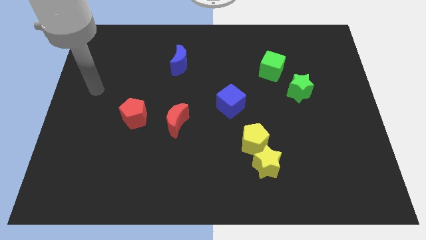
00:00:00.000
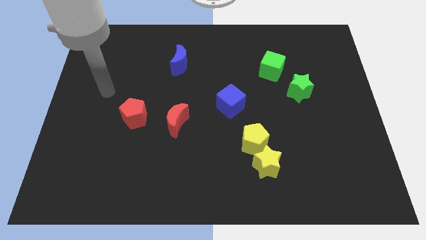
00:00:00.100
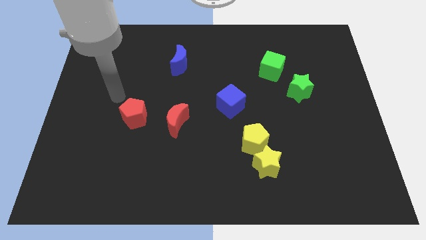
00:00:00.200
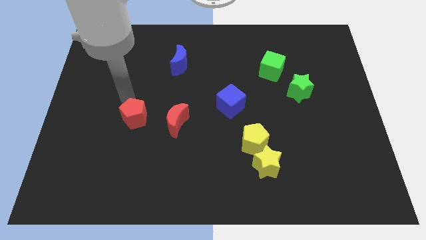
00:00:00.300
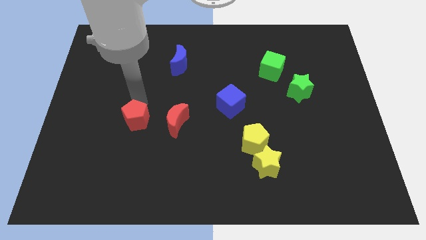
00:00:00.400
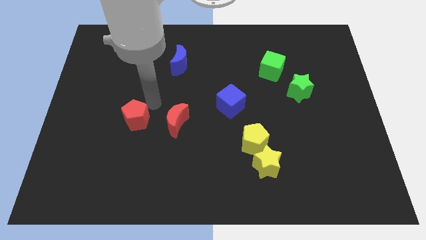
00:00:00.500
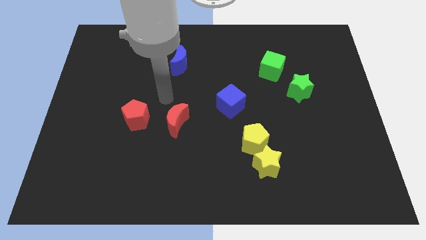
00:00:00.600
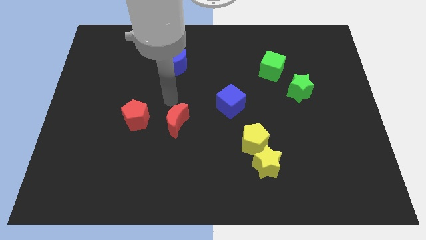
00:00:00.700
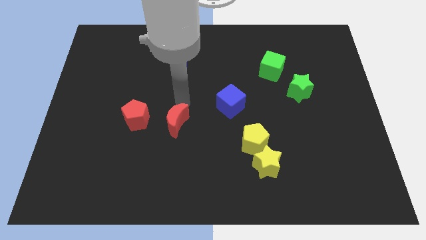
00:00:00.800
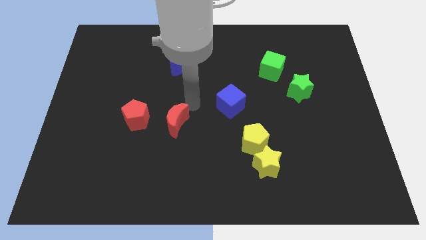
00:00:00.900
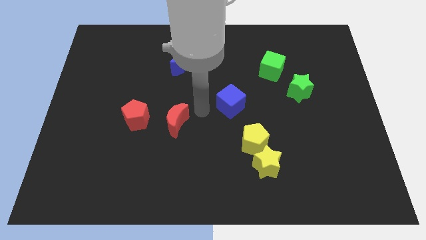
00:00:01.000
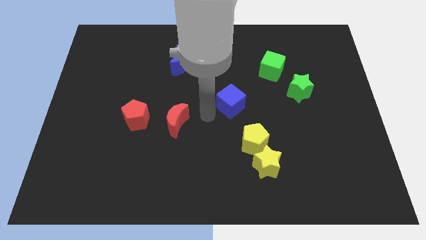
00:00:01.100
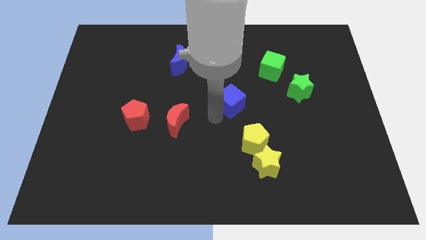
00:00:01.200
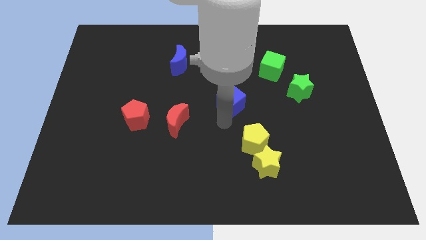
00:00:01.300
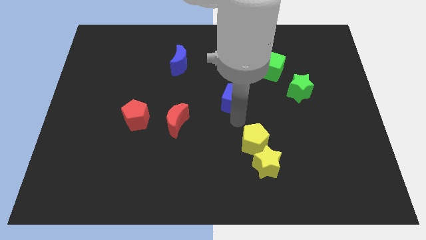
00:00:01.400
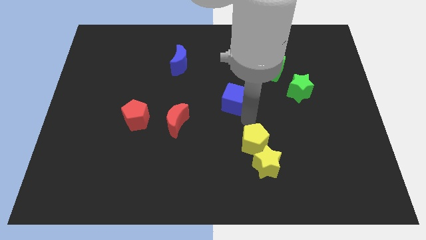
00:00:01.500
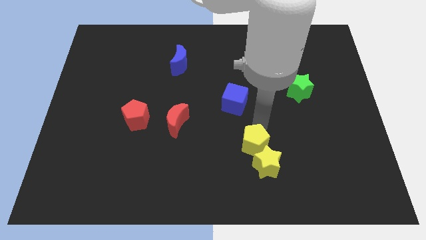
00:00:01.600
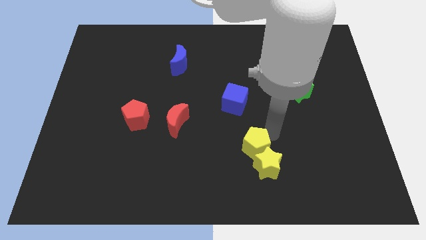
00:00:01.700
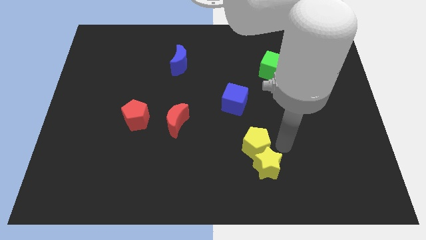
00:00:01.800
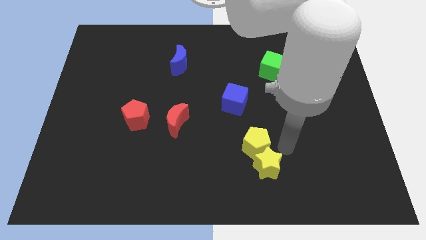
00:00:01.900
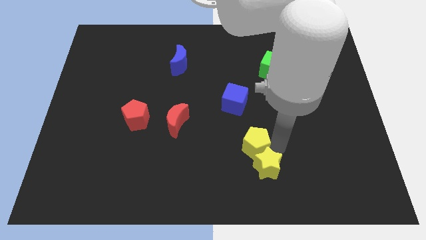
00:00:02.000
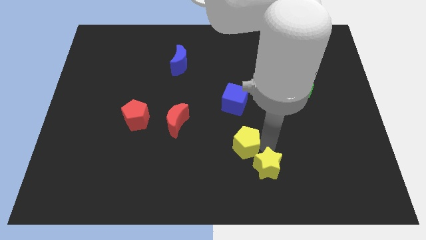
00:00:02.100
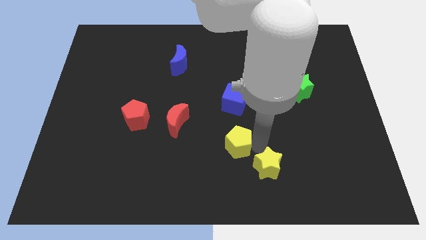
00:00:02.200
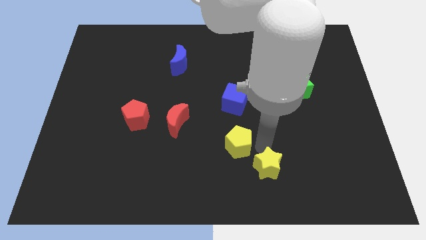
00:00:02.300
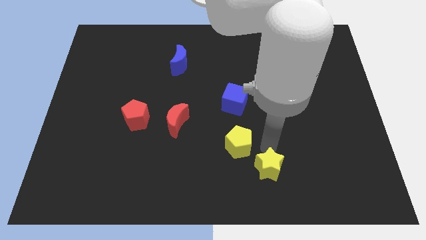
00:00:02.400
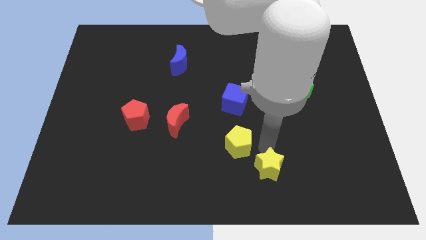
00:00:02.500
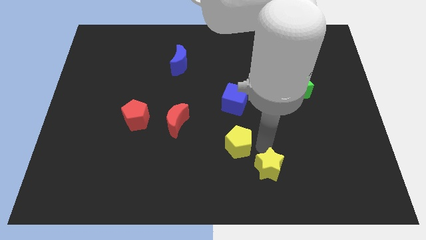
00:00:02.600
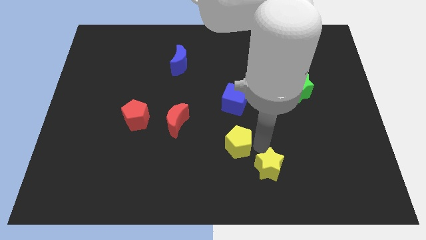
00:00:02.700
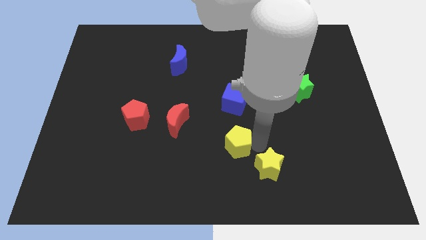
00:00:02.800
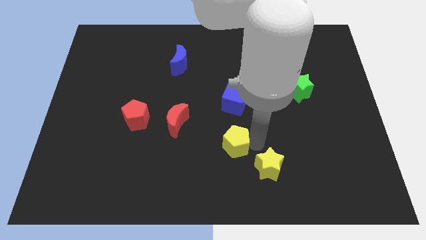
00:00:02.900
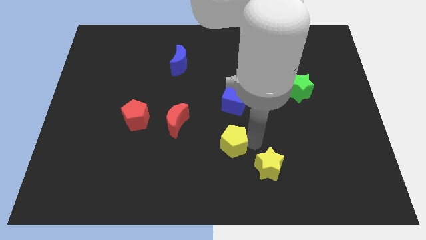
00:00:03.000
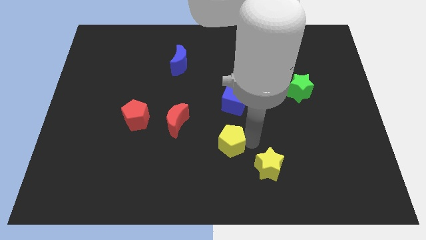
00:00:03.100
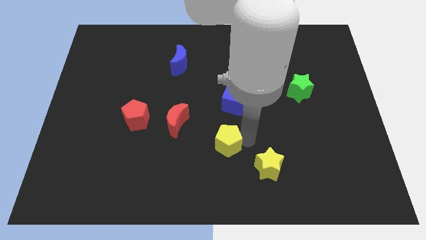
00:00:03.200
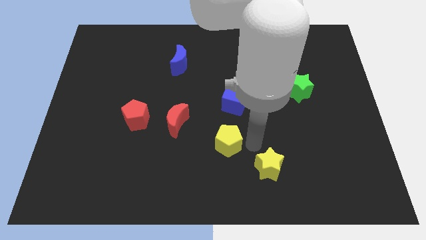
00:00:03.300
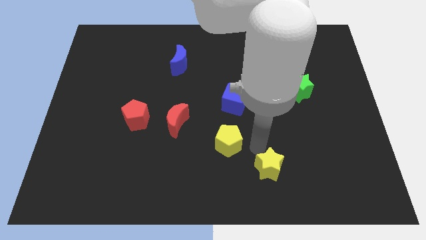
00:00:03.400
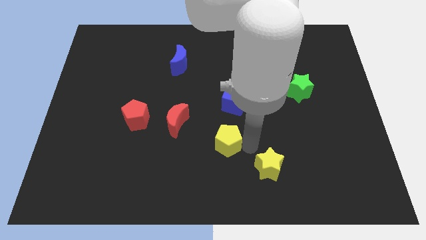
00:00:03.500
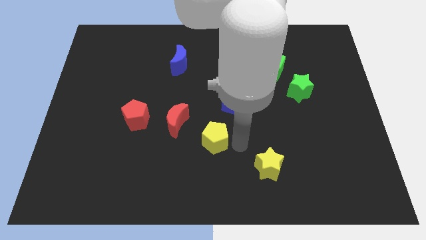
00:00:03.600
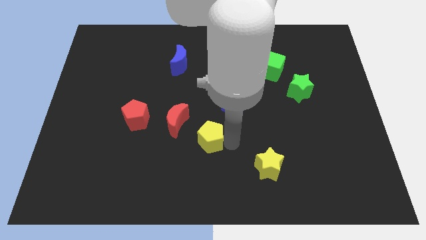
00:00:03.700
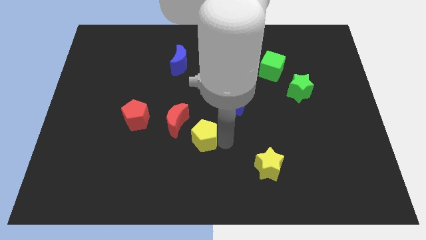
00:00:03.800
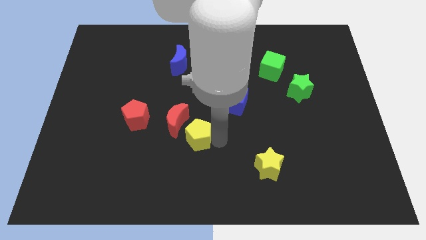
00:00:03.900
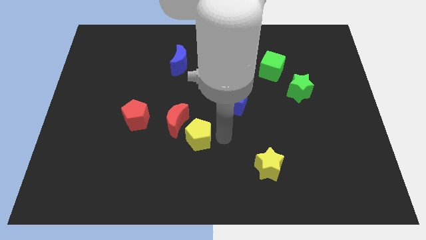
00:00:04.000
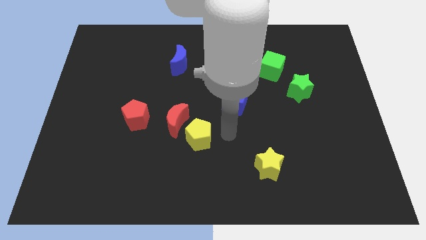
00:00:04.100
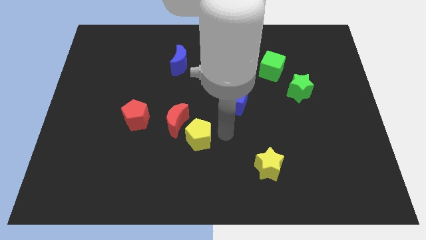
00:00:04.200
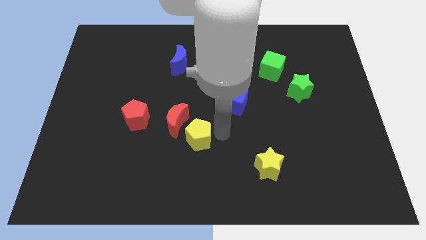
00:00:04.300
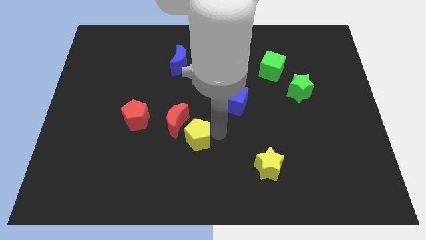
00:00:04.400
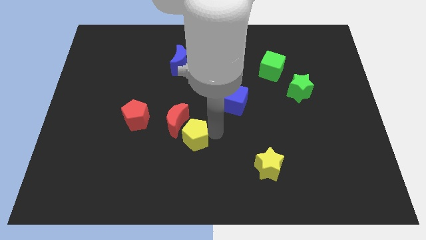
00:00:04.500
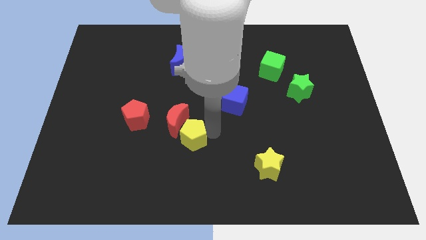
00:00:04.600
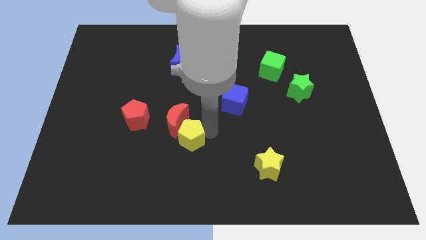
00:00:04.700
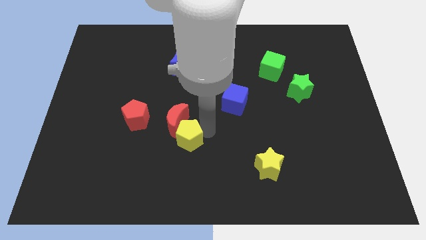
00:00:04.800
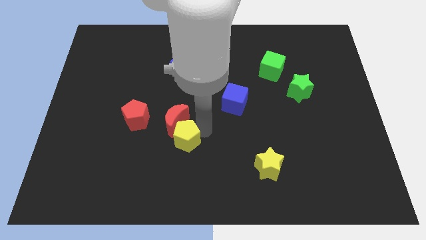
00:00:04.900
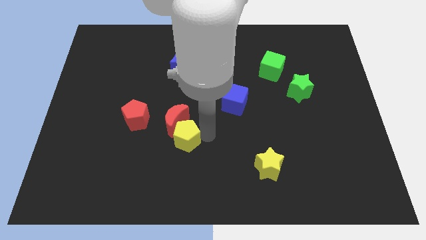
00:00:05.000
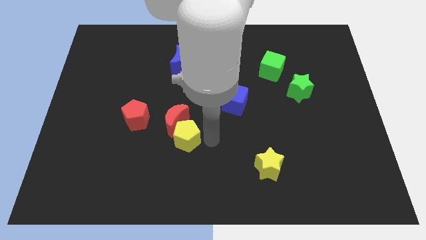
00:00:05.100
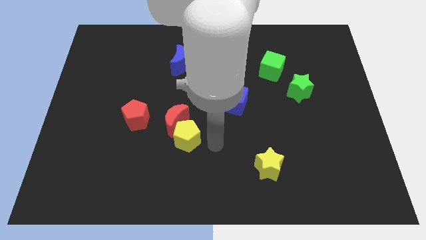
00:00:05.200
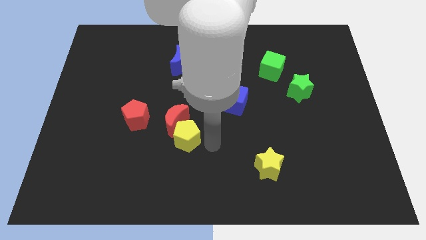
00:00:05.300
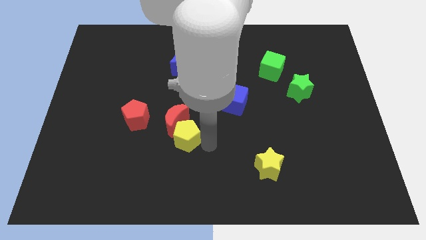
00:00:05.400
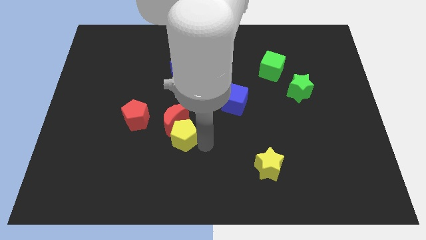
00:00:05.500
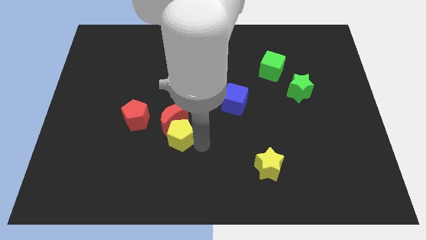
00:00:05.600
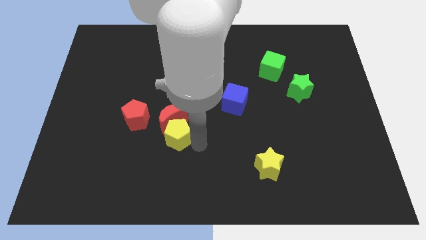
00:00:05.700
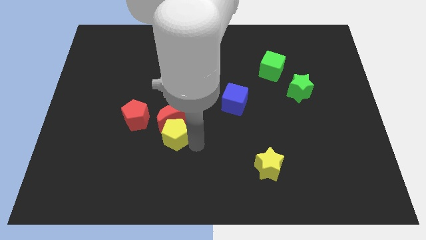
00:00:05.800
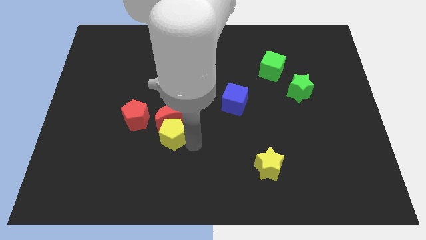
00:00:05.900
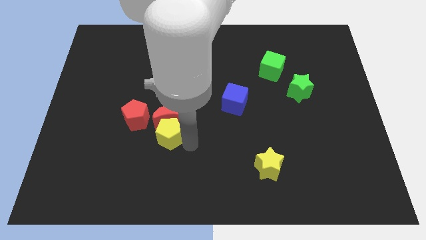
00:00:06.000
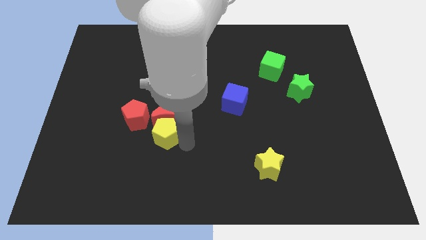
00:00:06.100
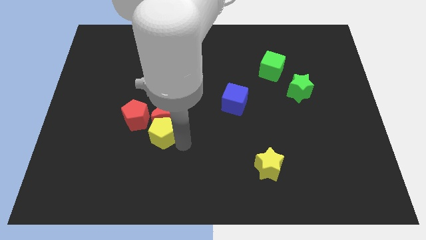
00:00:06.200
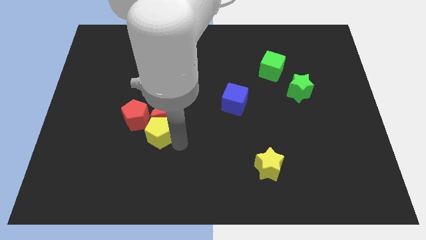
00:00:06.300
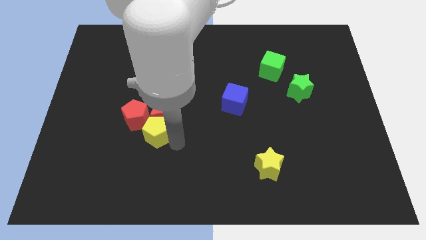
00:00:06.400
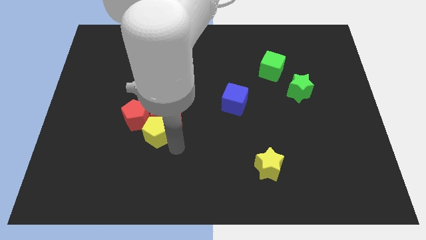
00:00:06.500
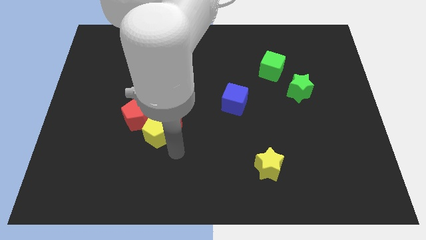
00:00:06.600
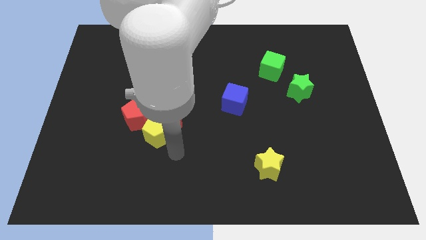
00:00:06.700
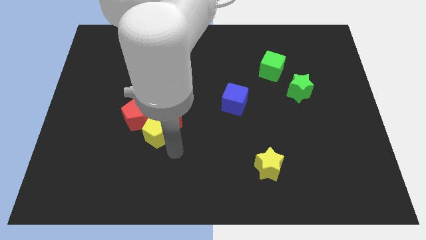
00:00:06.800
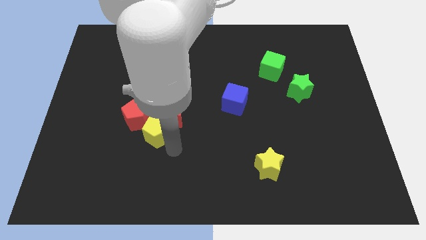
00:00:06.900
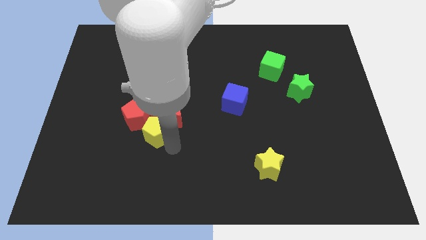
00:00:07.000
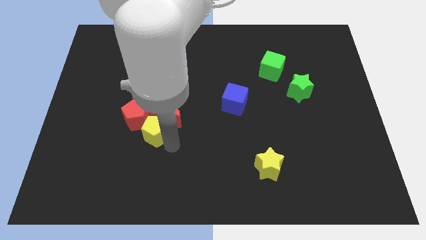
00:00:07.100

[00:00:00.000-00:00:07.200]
put the yellow pentagon to the red pentagon

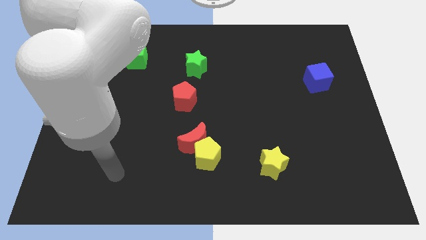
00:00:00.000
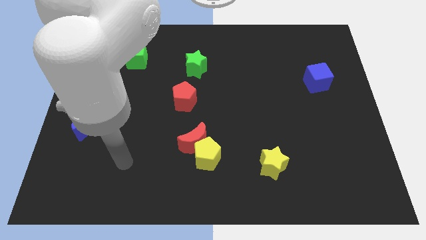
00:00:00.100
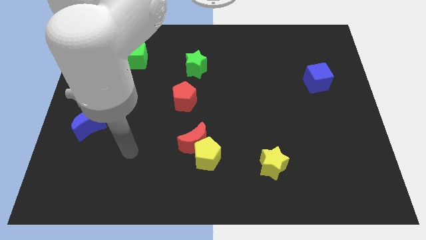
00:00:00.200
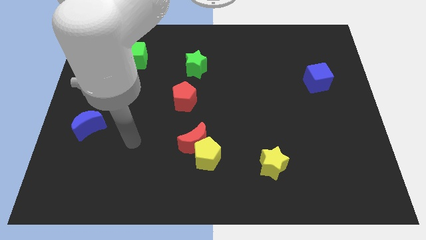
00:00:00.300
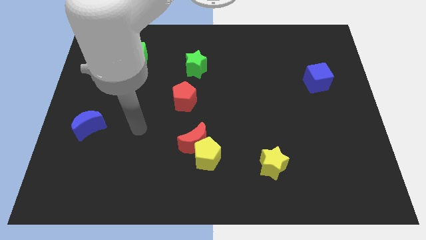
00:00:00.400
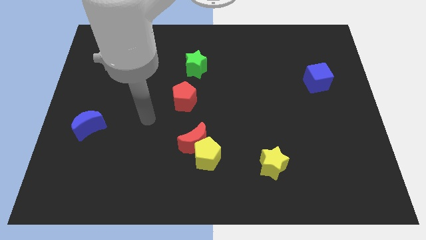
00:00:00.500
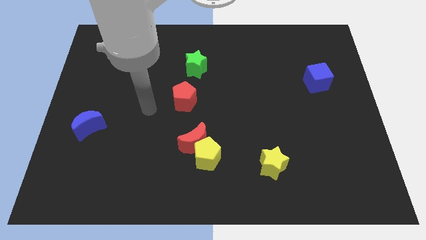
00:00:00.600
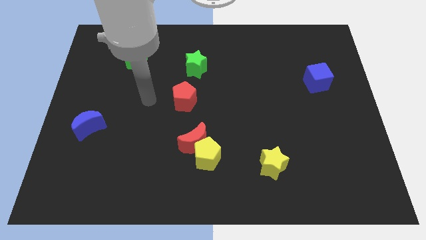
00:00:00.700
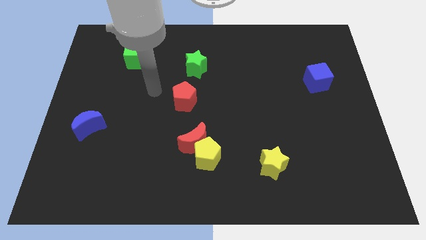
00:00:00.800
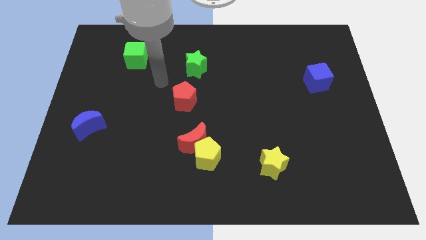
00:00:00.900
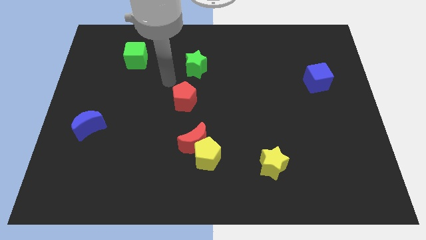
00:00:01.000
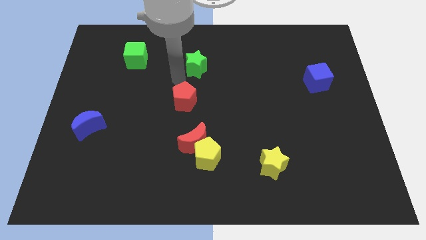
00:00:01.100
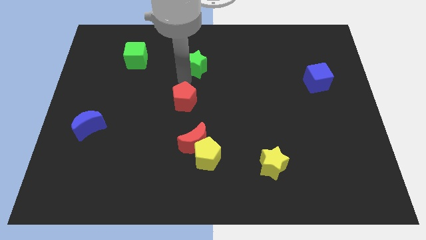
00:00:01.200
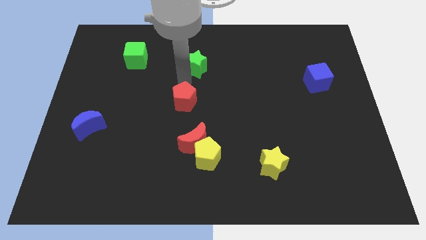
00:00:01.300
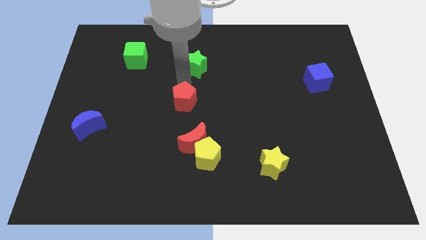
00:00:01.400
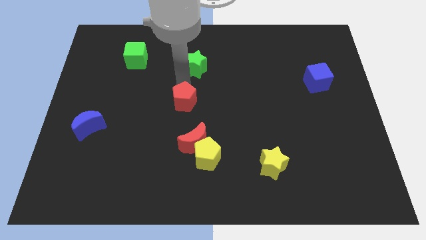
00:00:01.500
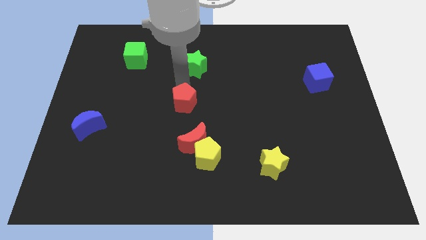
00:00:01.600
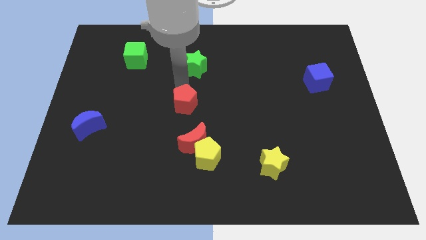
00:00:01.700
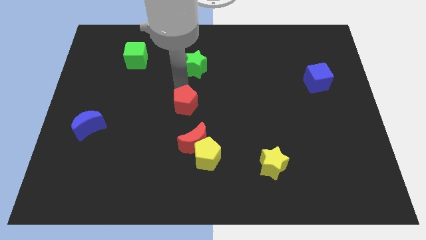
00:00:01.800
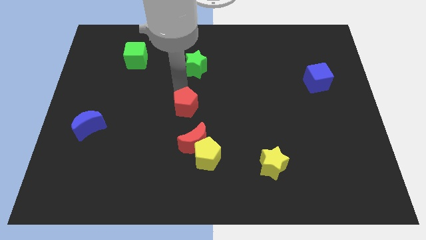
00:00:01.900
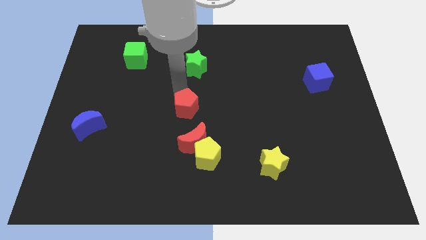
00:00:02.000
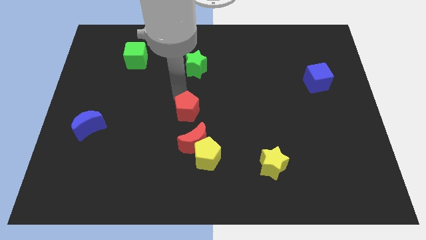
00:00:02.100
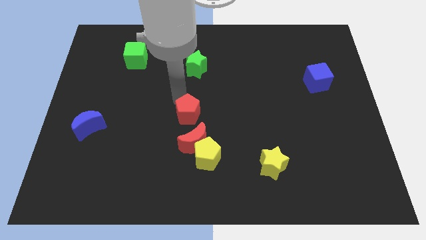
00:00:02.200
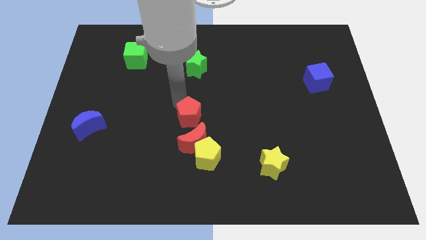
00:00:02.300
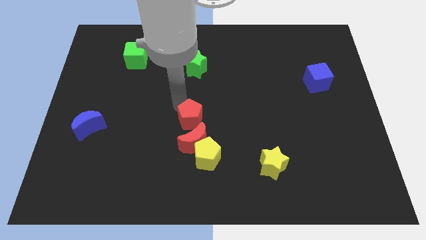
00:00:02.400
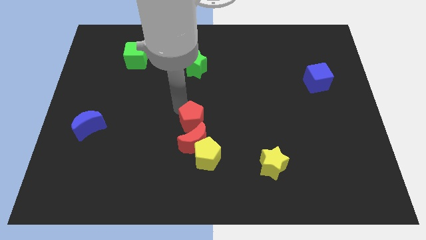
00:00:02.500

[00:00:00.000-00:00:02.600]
push the red pentagon close to the red moon
